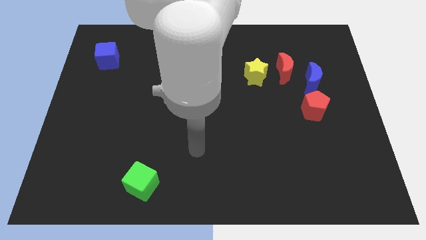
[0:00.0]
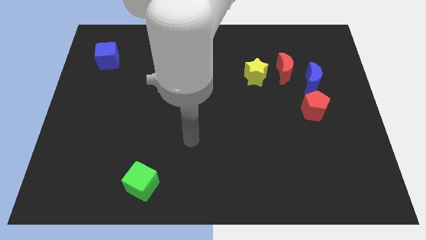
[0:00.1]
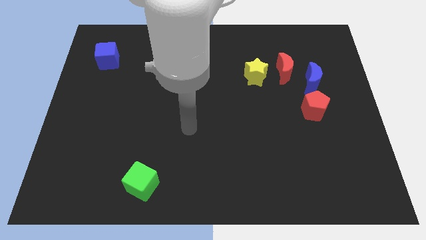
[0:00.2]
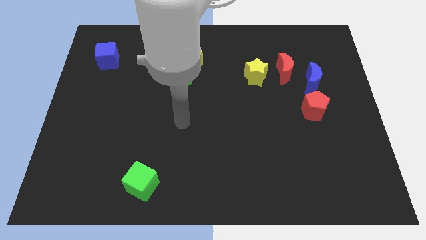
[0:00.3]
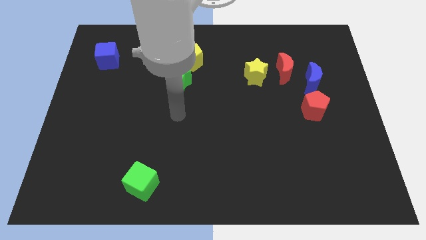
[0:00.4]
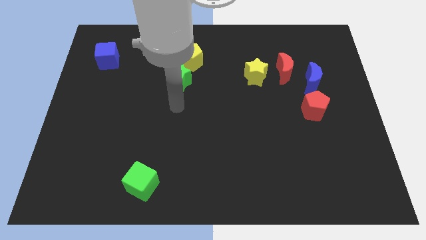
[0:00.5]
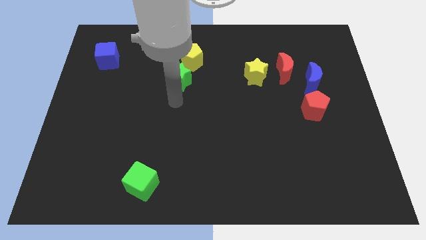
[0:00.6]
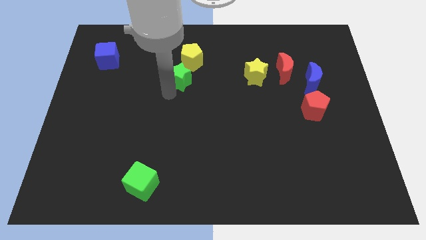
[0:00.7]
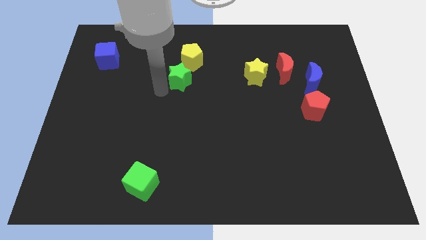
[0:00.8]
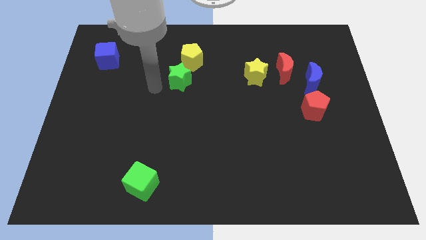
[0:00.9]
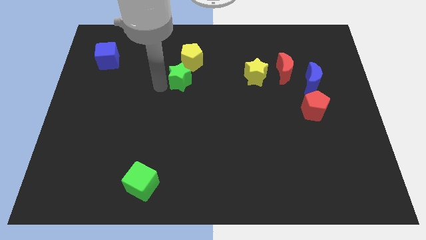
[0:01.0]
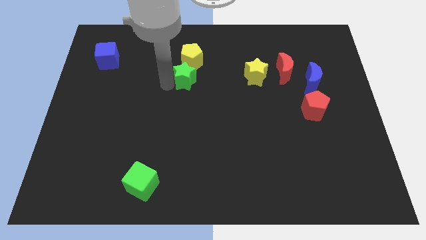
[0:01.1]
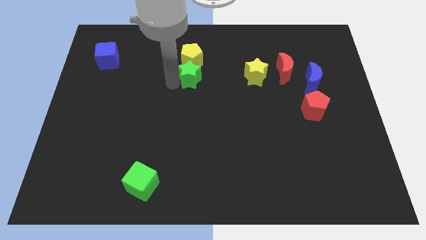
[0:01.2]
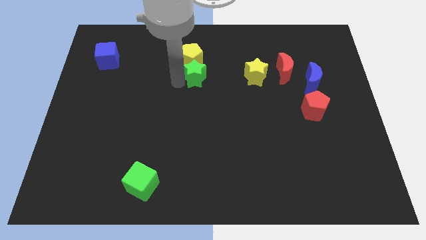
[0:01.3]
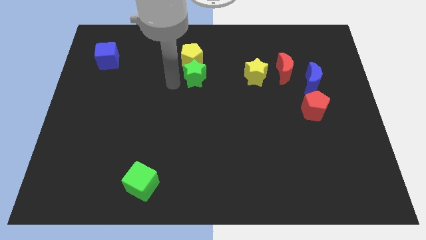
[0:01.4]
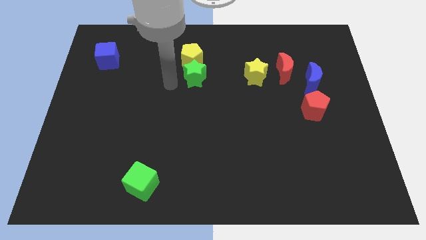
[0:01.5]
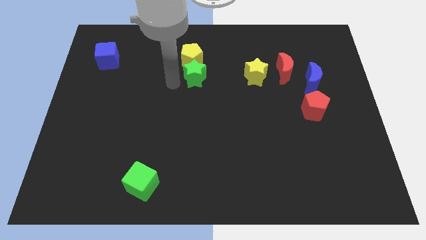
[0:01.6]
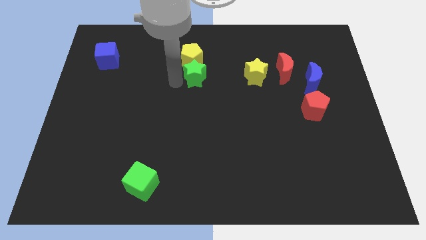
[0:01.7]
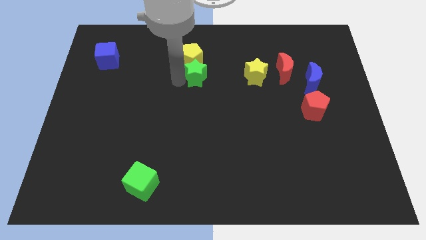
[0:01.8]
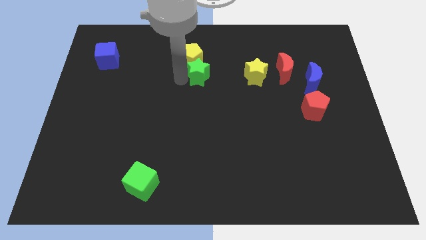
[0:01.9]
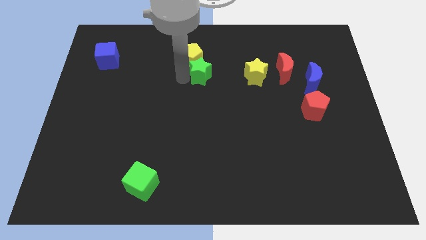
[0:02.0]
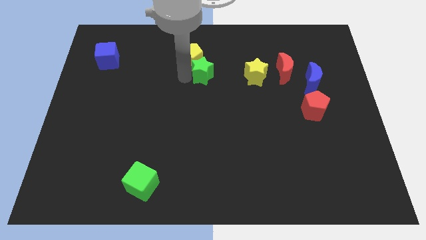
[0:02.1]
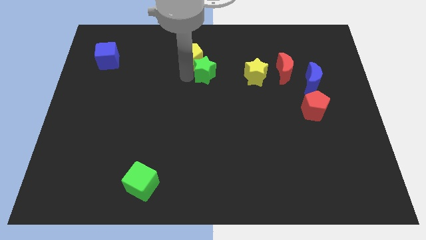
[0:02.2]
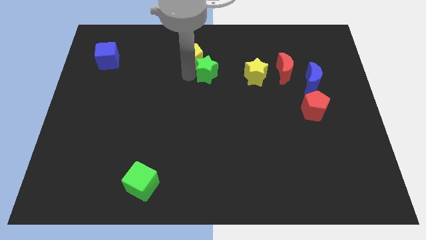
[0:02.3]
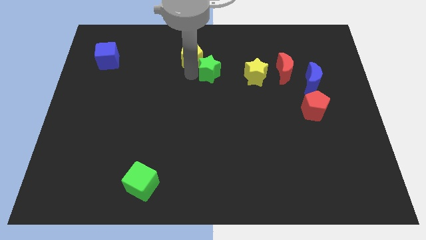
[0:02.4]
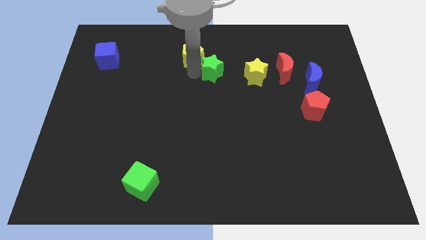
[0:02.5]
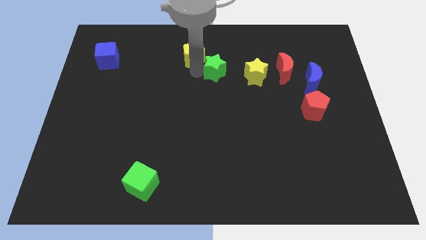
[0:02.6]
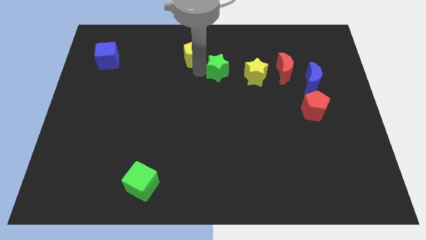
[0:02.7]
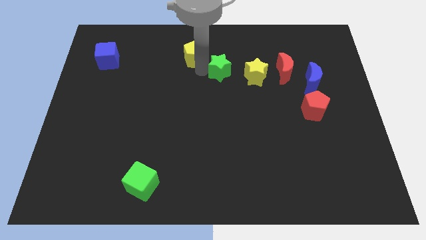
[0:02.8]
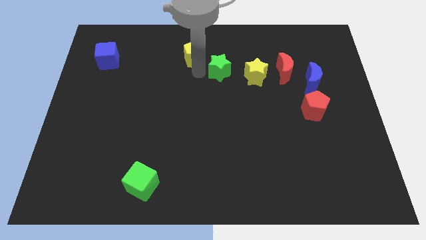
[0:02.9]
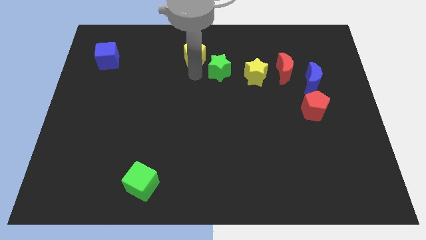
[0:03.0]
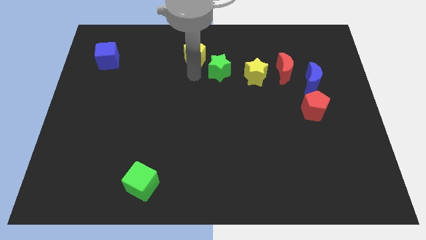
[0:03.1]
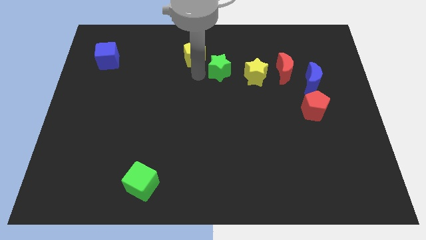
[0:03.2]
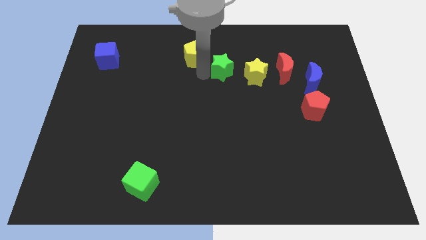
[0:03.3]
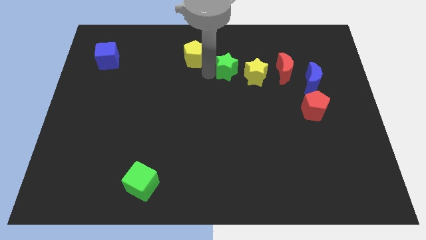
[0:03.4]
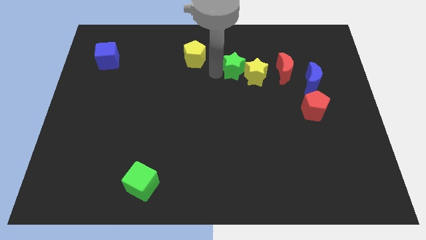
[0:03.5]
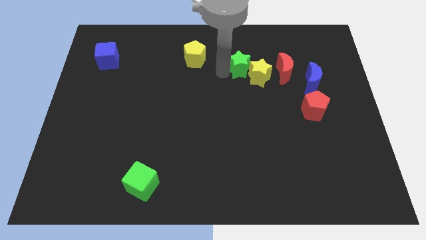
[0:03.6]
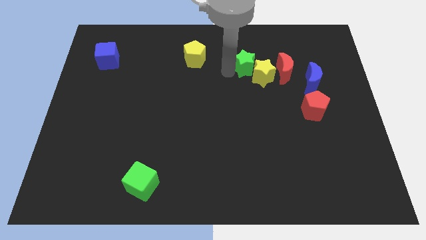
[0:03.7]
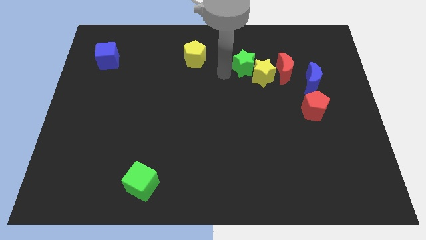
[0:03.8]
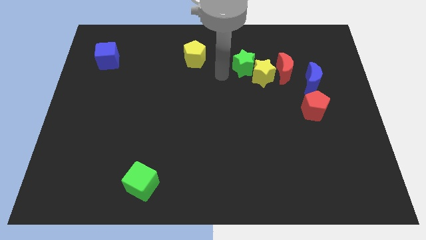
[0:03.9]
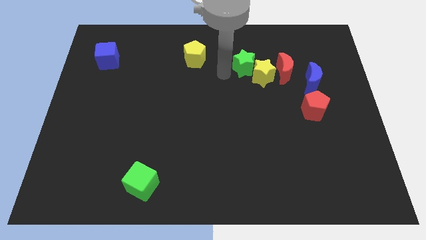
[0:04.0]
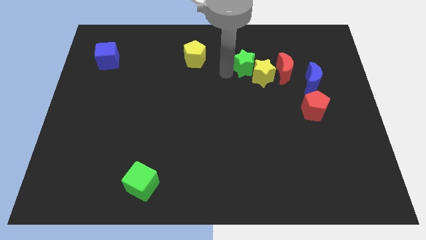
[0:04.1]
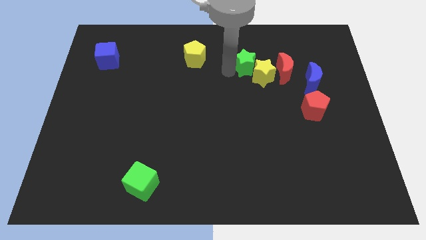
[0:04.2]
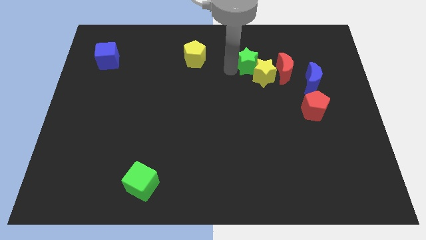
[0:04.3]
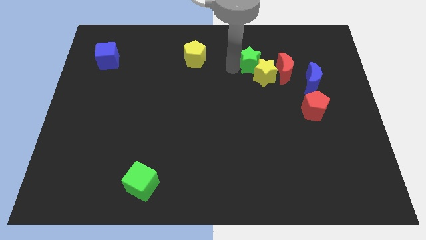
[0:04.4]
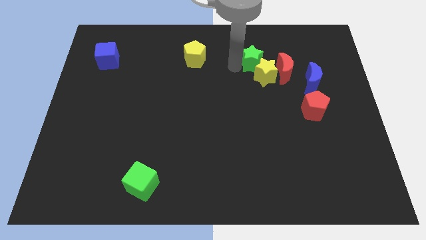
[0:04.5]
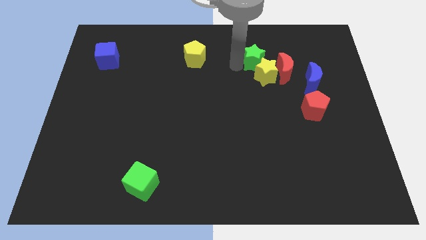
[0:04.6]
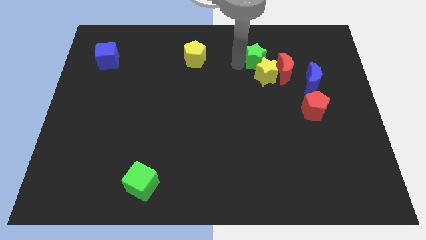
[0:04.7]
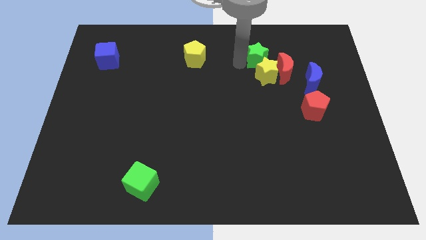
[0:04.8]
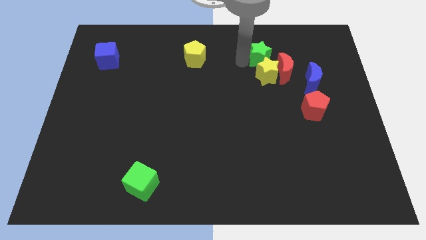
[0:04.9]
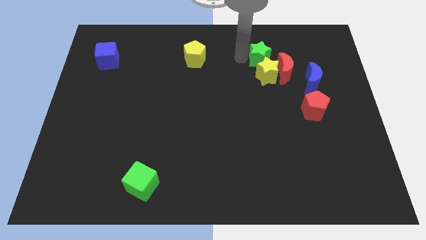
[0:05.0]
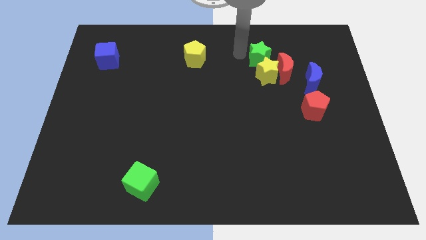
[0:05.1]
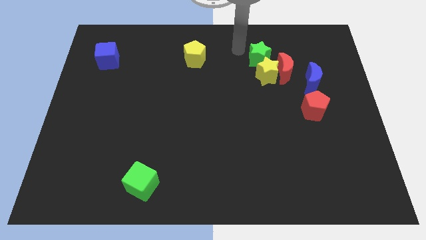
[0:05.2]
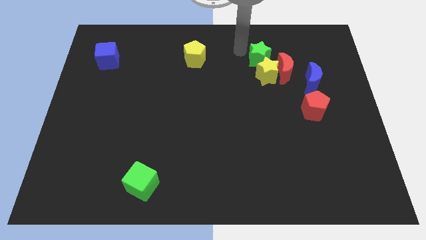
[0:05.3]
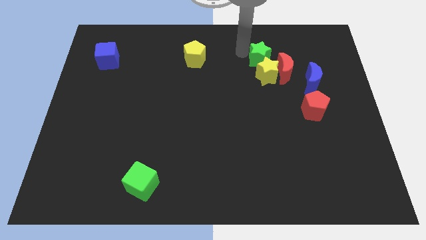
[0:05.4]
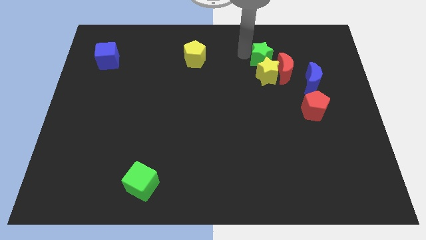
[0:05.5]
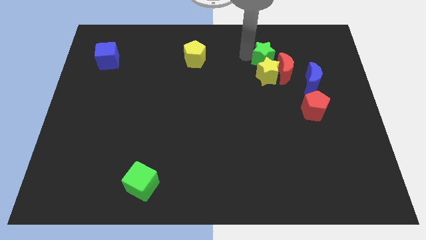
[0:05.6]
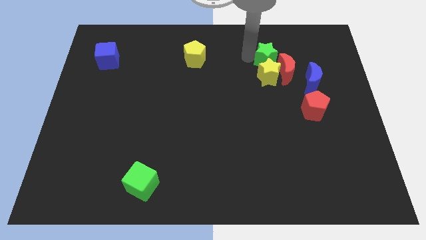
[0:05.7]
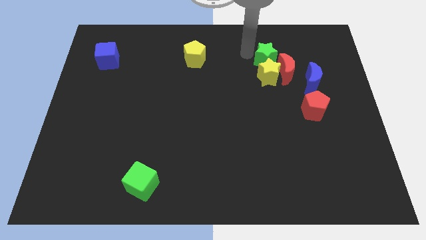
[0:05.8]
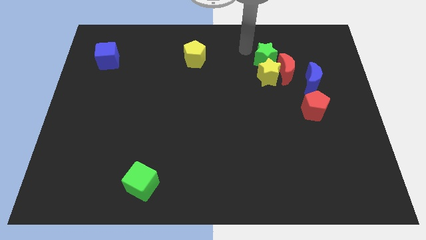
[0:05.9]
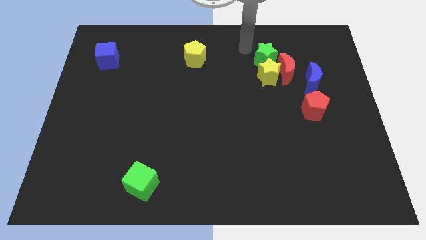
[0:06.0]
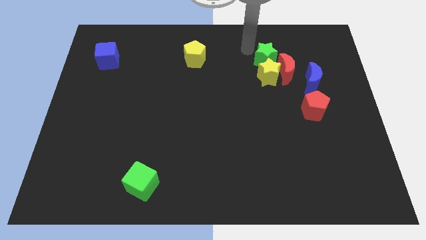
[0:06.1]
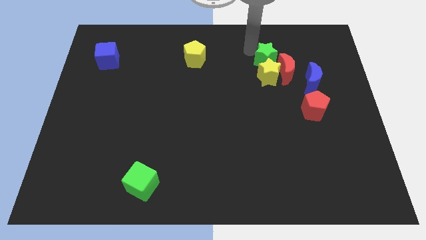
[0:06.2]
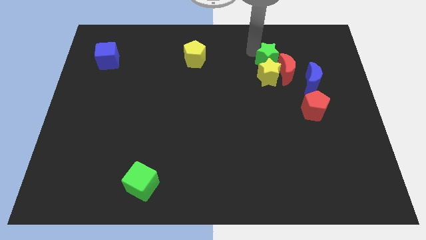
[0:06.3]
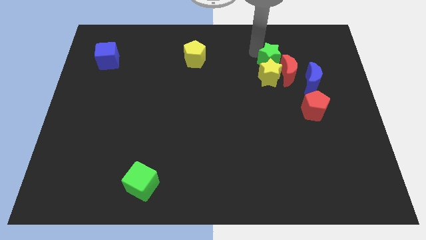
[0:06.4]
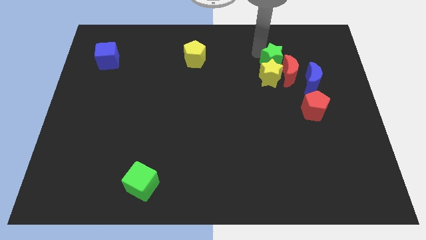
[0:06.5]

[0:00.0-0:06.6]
move the green star towards the red moon

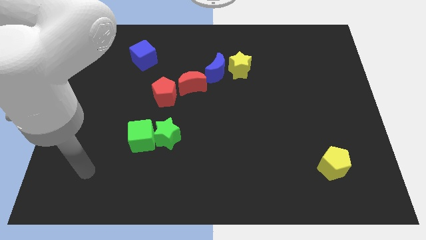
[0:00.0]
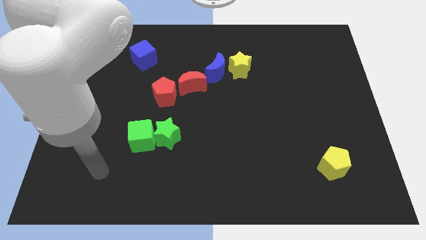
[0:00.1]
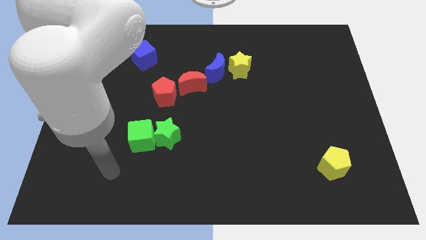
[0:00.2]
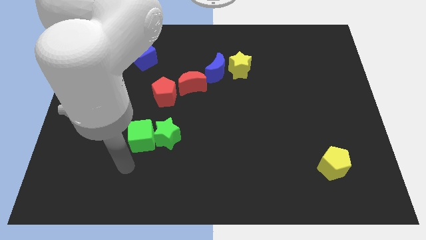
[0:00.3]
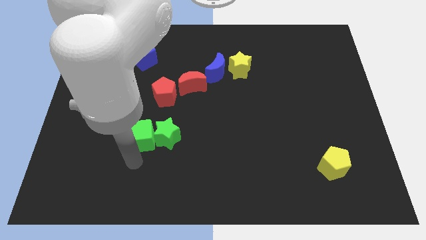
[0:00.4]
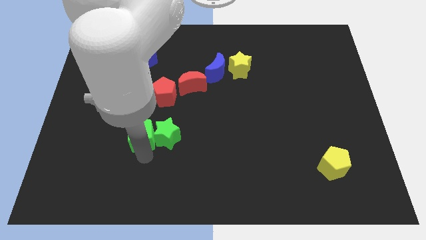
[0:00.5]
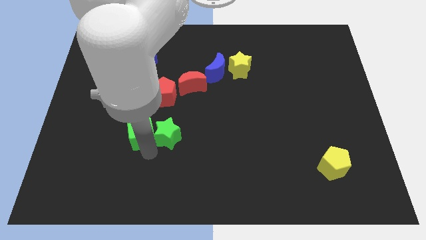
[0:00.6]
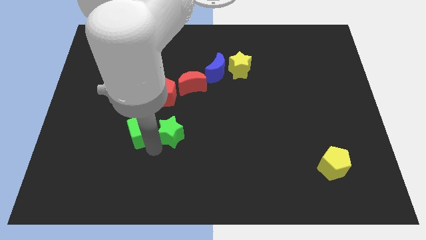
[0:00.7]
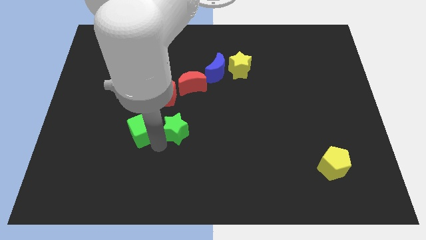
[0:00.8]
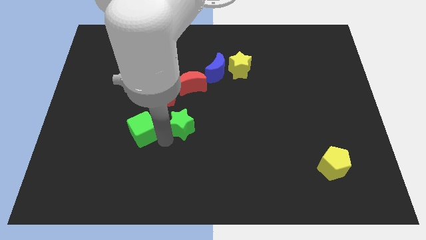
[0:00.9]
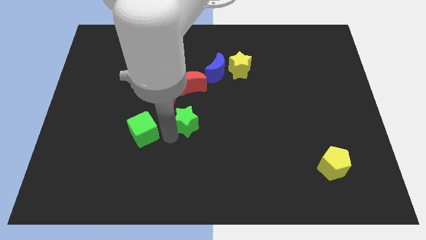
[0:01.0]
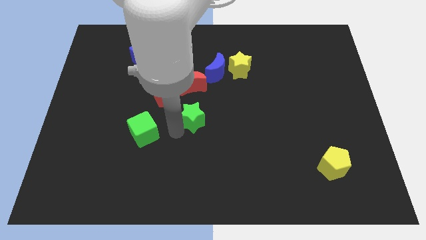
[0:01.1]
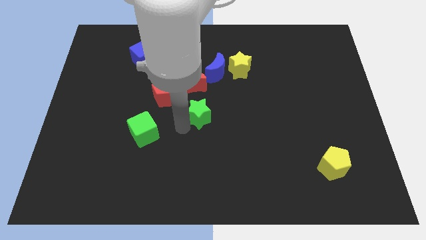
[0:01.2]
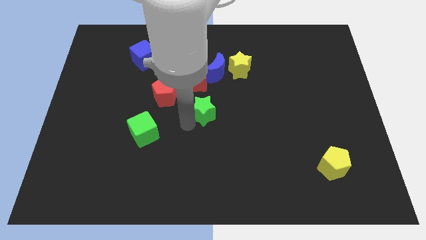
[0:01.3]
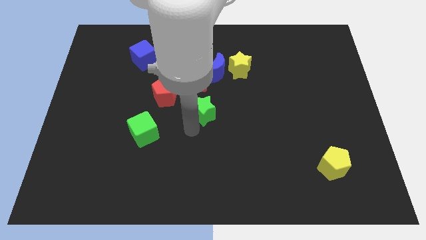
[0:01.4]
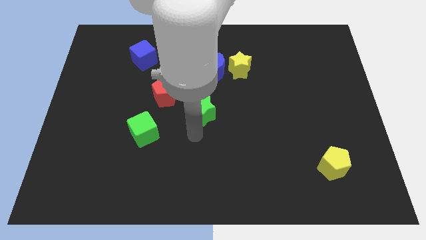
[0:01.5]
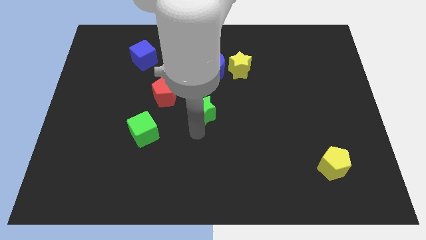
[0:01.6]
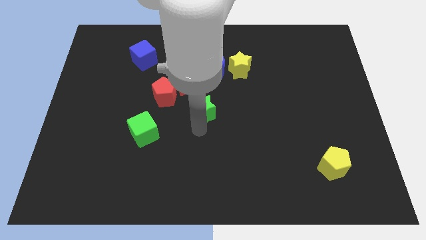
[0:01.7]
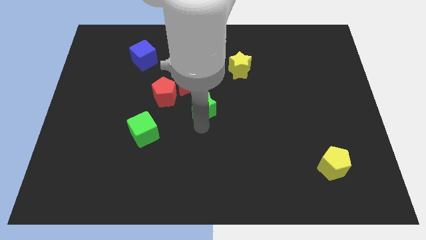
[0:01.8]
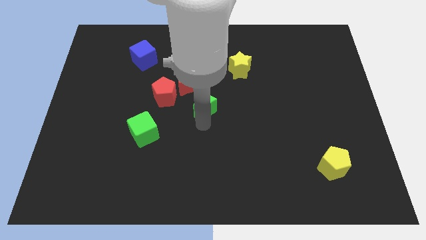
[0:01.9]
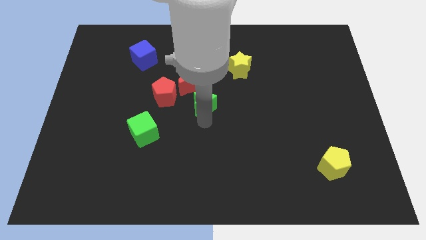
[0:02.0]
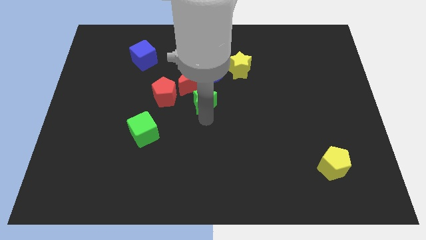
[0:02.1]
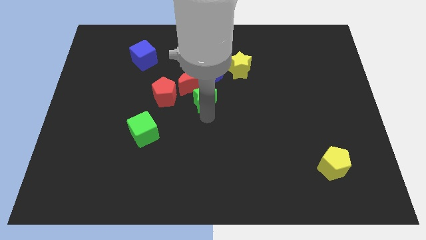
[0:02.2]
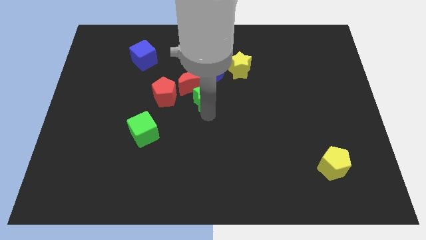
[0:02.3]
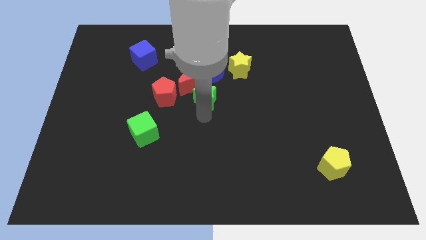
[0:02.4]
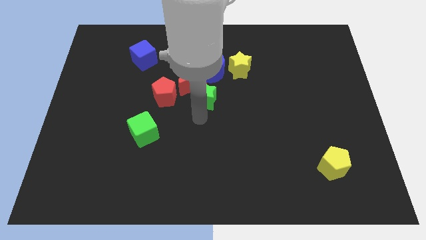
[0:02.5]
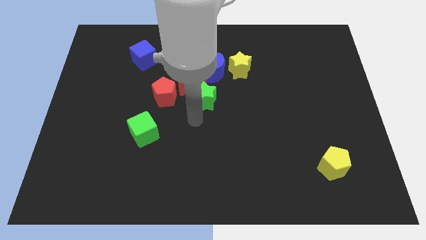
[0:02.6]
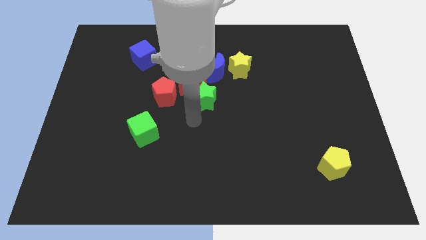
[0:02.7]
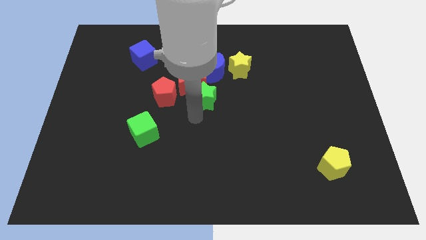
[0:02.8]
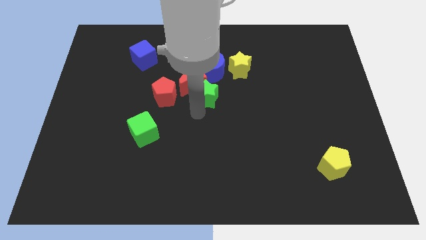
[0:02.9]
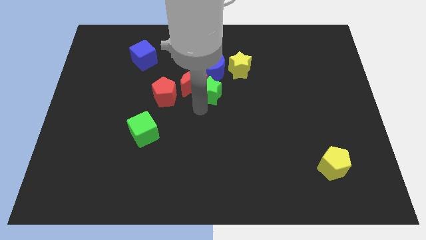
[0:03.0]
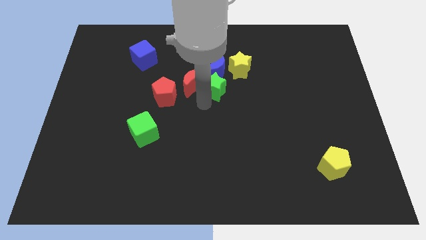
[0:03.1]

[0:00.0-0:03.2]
put the green star to the blue moon
